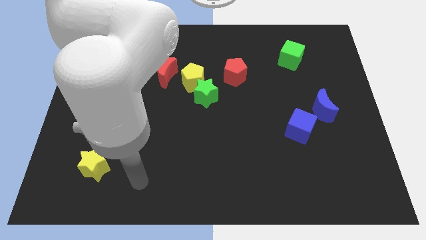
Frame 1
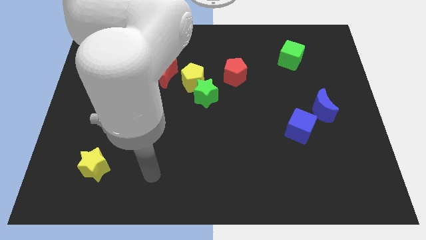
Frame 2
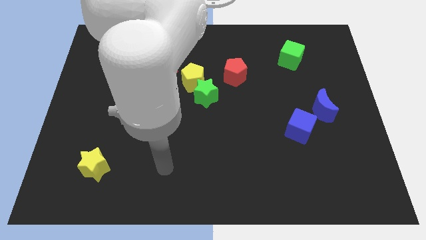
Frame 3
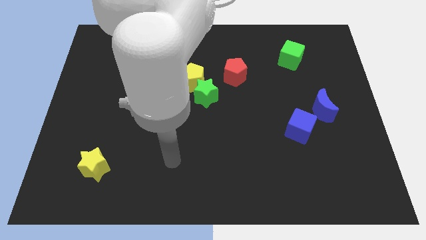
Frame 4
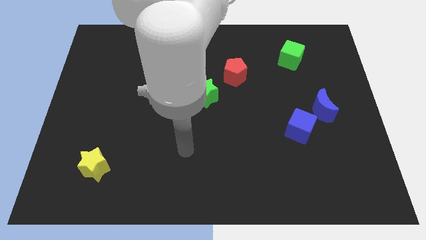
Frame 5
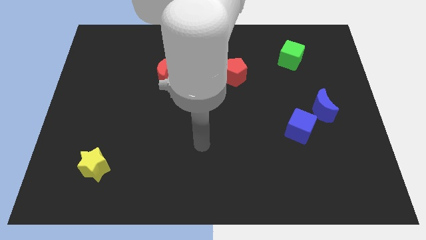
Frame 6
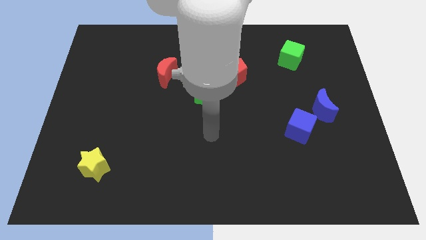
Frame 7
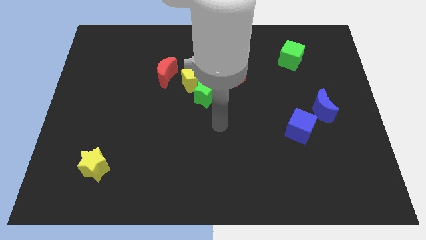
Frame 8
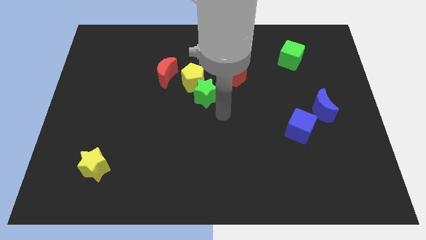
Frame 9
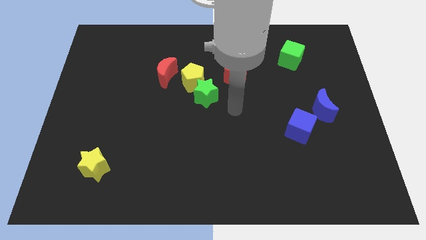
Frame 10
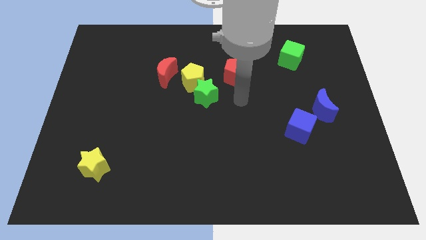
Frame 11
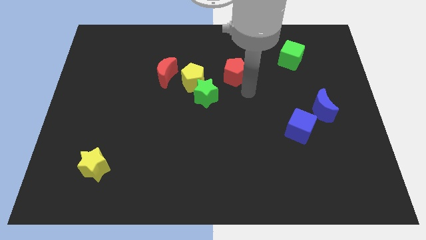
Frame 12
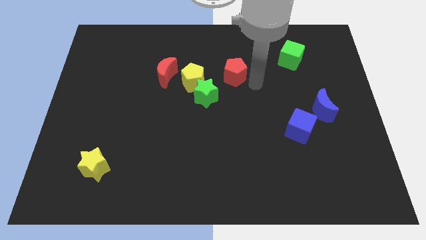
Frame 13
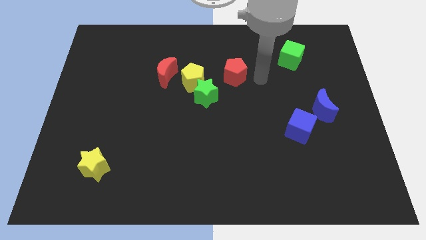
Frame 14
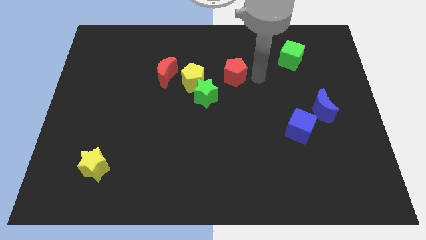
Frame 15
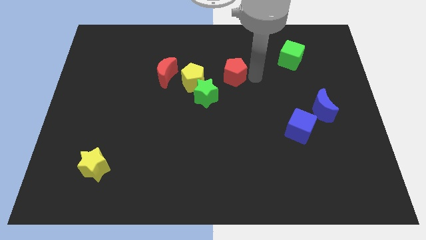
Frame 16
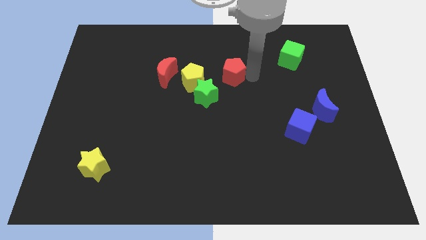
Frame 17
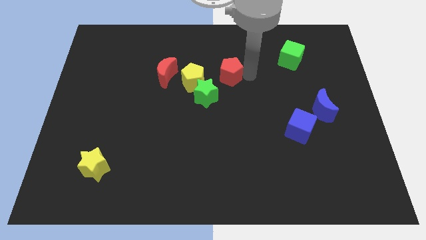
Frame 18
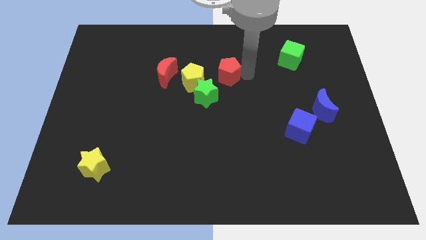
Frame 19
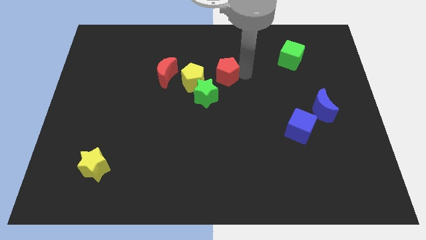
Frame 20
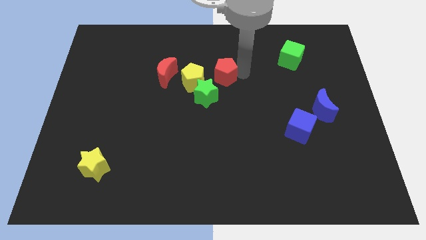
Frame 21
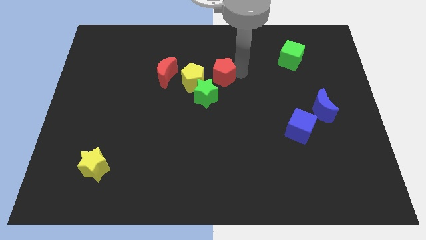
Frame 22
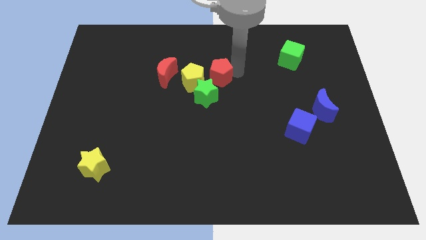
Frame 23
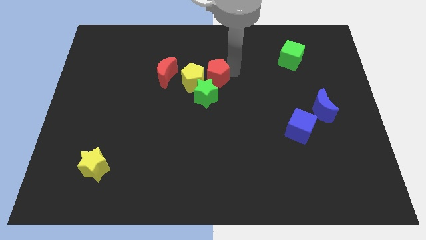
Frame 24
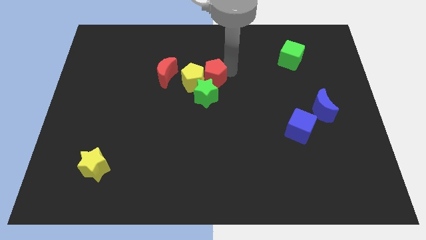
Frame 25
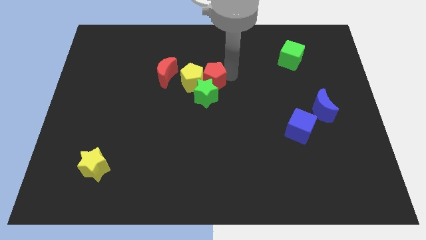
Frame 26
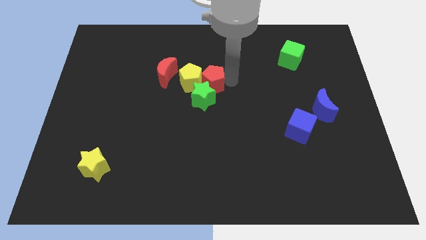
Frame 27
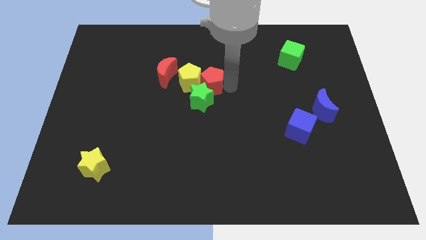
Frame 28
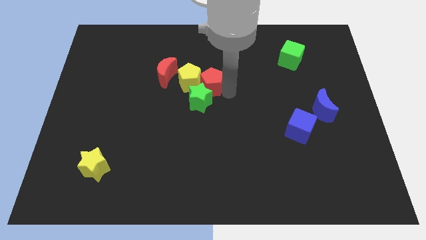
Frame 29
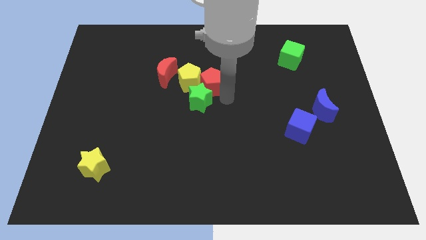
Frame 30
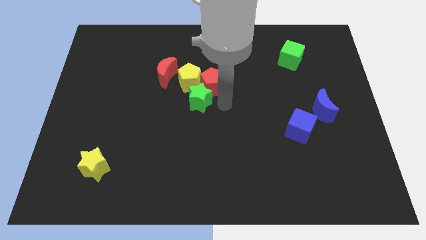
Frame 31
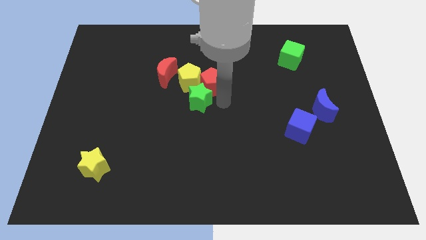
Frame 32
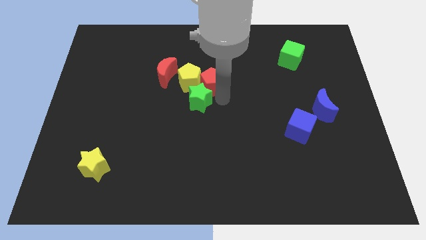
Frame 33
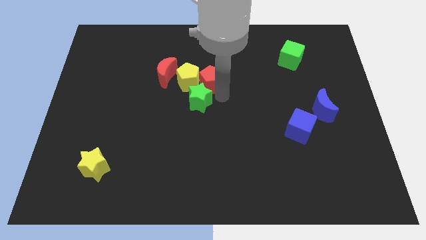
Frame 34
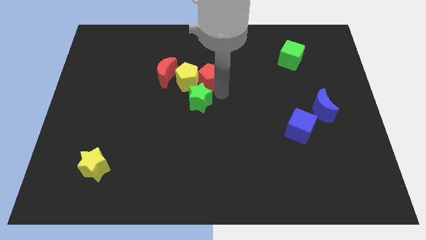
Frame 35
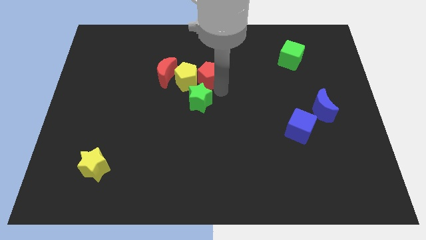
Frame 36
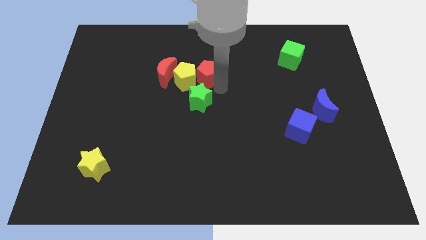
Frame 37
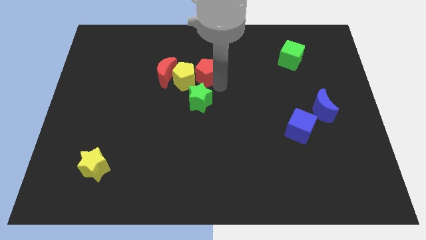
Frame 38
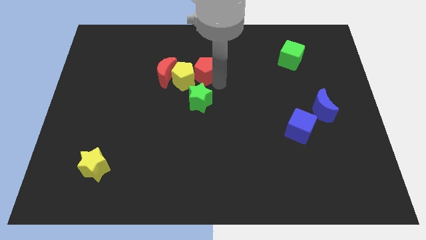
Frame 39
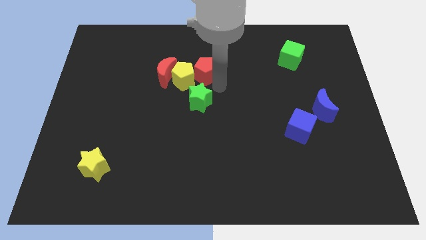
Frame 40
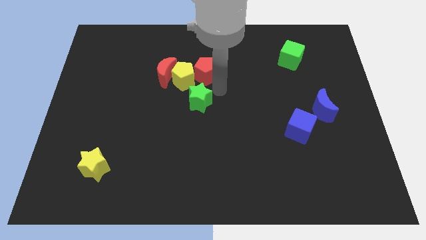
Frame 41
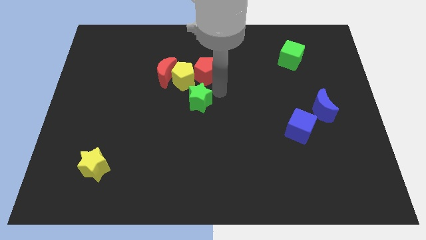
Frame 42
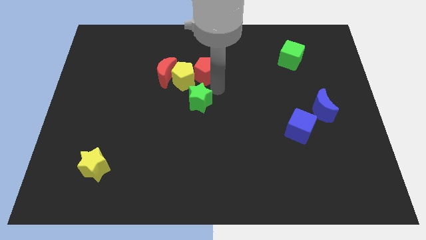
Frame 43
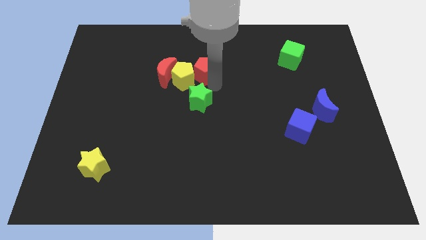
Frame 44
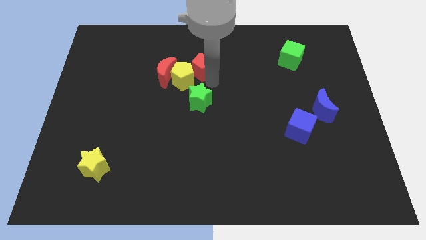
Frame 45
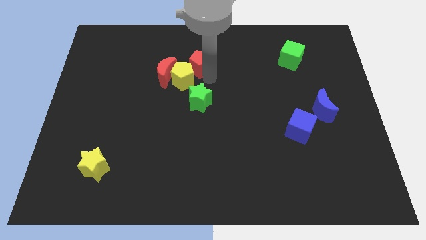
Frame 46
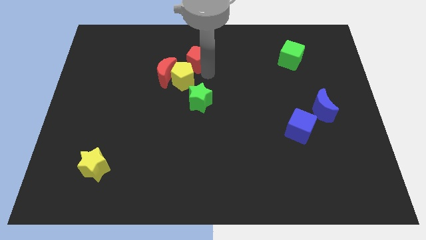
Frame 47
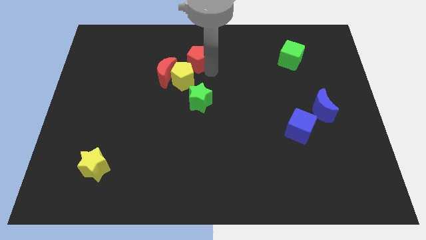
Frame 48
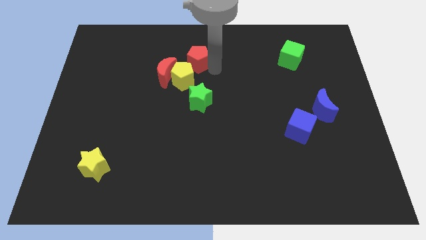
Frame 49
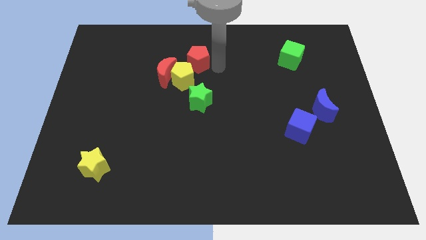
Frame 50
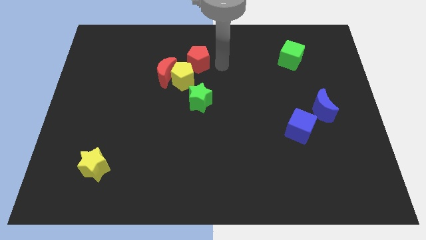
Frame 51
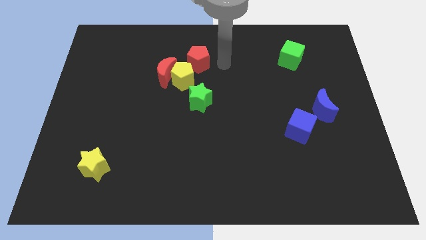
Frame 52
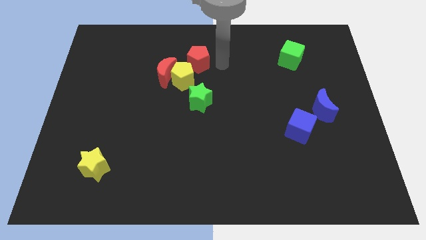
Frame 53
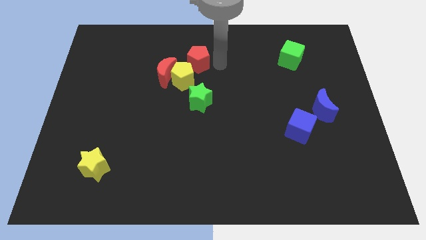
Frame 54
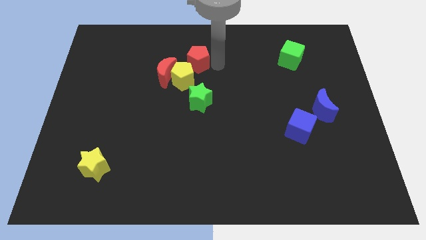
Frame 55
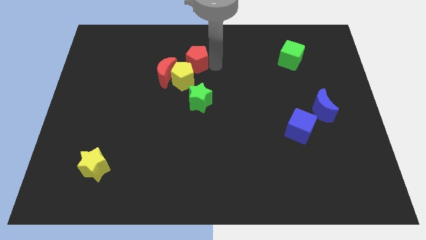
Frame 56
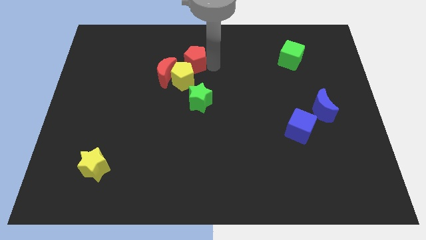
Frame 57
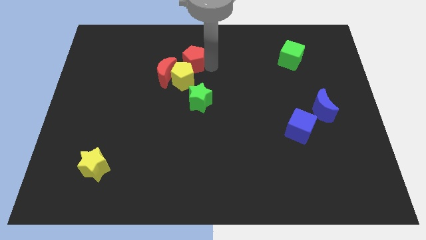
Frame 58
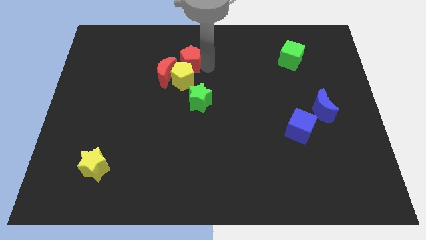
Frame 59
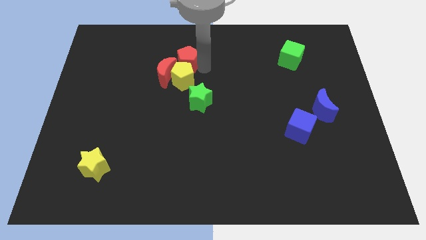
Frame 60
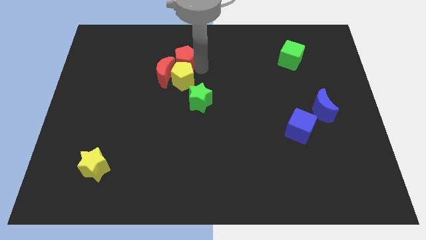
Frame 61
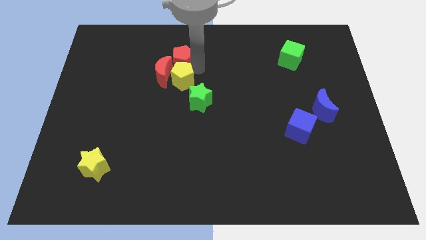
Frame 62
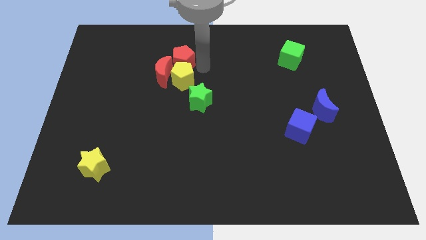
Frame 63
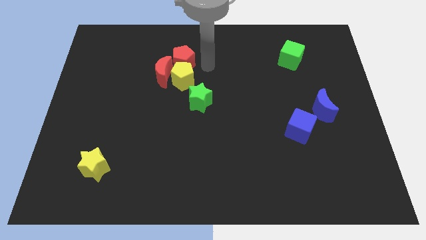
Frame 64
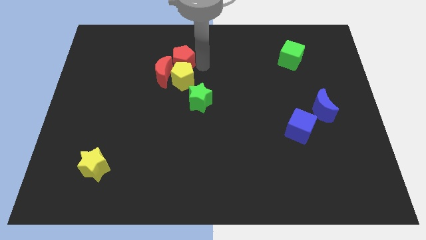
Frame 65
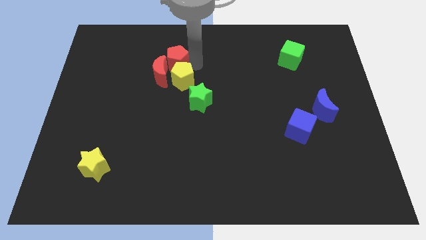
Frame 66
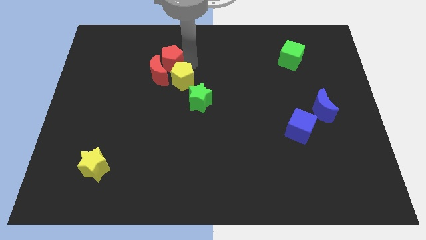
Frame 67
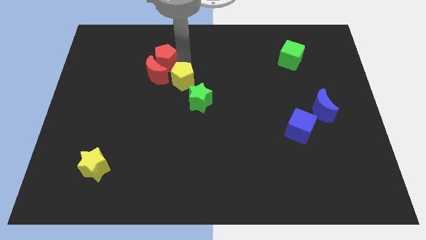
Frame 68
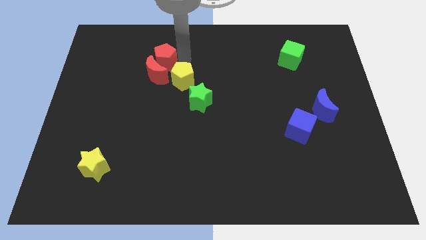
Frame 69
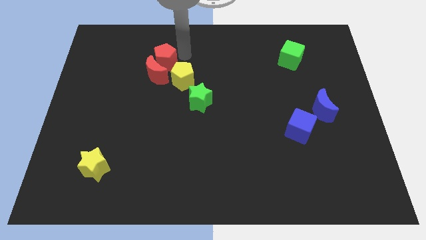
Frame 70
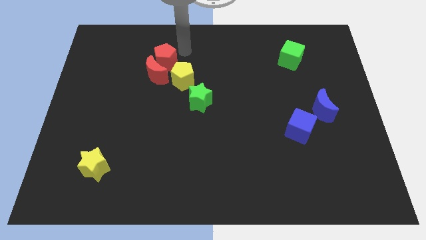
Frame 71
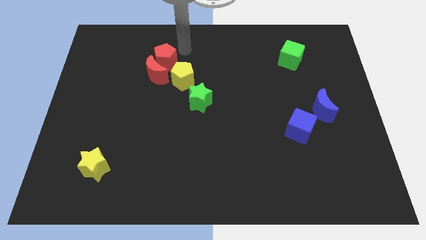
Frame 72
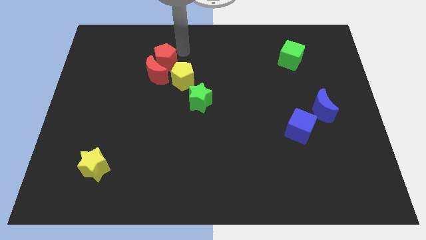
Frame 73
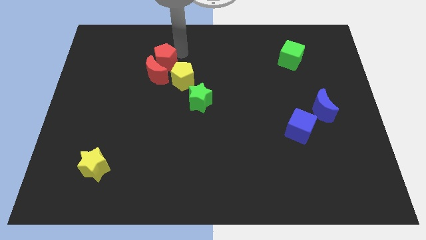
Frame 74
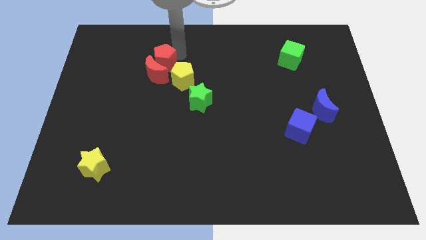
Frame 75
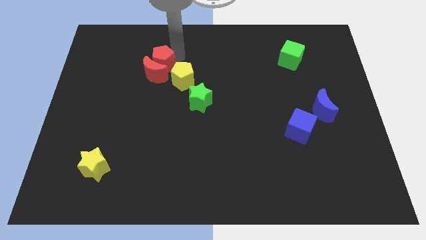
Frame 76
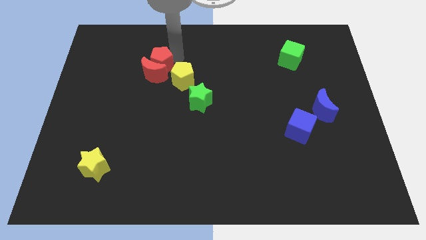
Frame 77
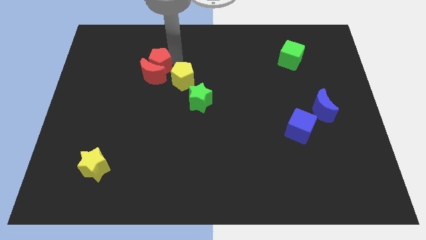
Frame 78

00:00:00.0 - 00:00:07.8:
move the red pentagon to the left of the yellow pentagon
